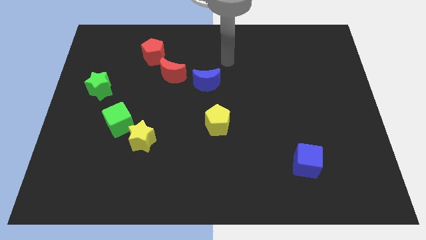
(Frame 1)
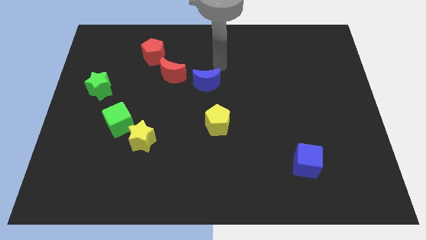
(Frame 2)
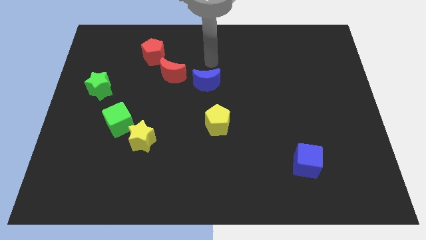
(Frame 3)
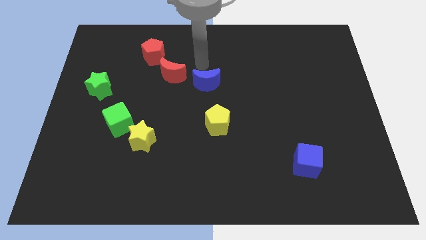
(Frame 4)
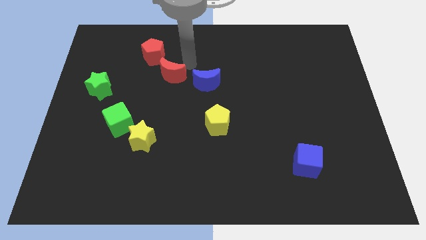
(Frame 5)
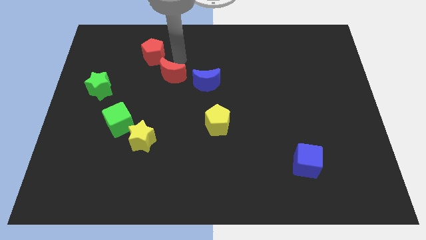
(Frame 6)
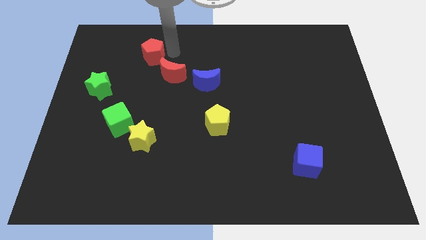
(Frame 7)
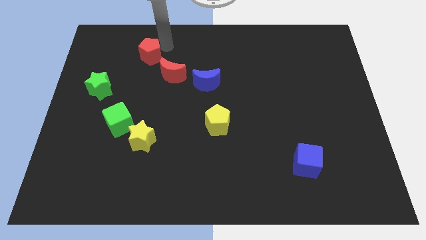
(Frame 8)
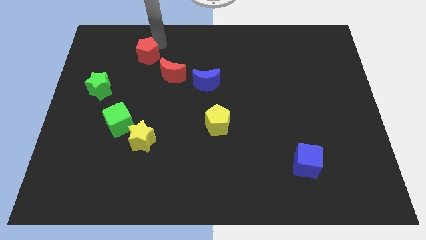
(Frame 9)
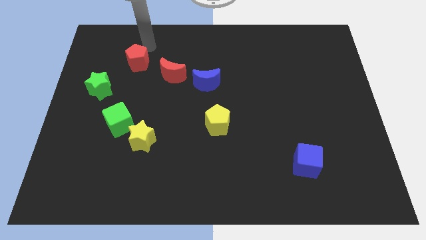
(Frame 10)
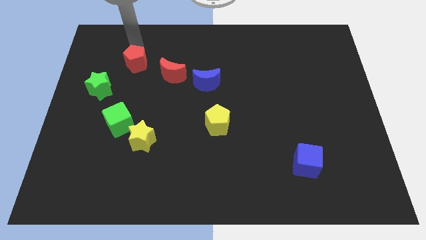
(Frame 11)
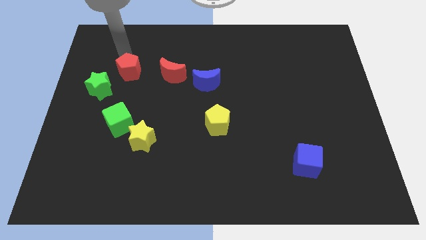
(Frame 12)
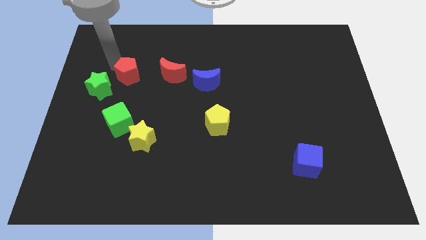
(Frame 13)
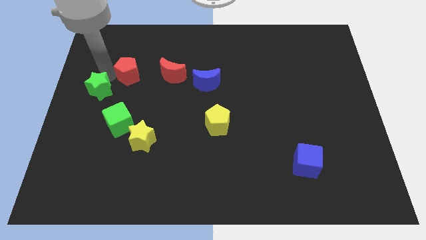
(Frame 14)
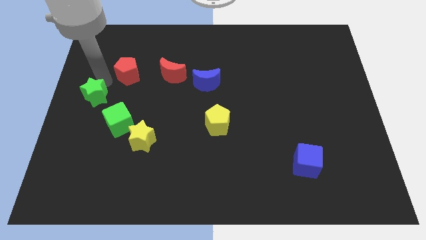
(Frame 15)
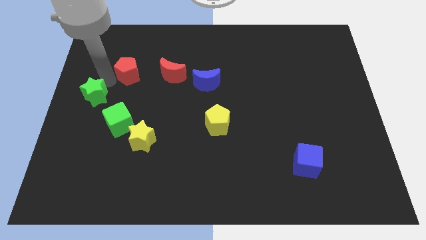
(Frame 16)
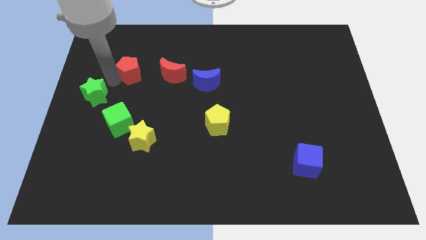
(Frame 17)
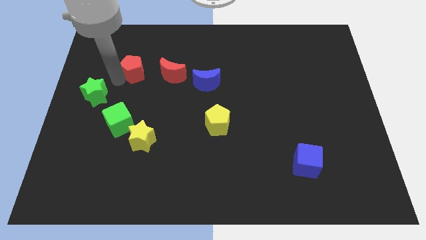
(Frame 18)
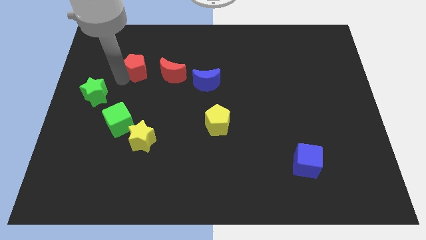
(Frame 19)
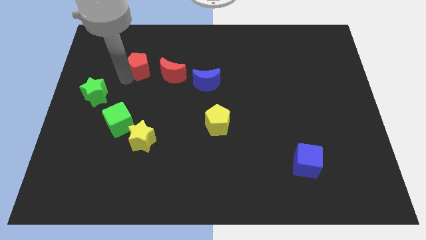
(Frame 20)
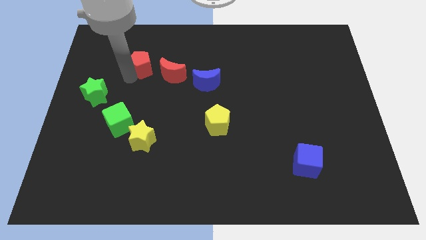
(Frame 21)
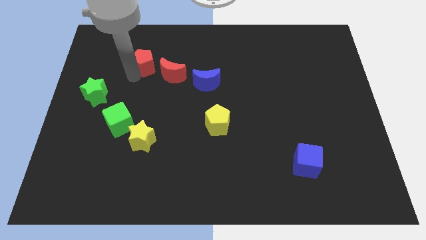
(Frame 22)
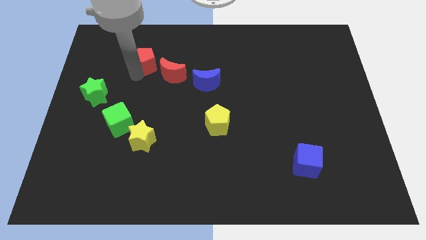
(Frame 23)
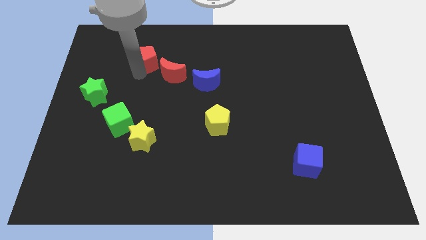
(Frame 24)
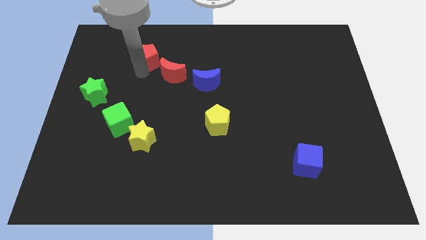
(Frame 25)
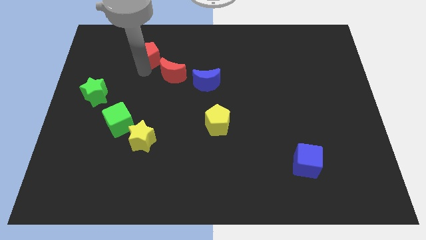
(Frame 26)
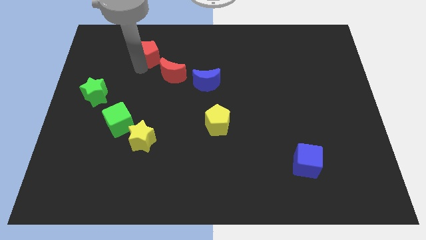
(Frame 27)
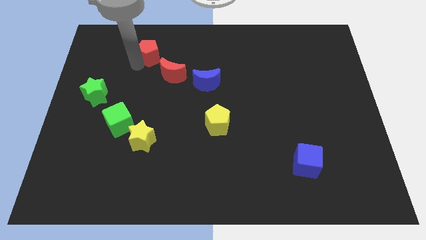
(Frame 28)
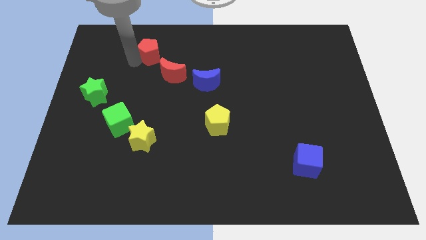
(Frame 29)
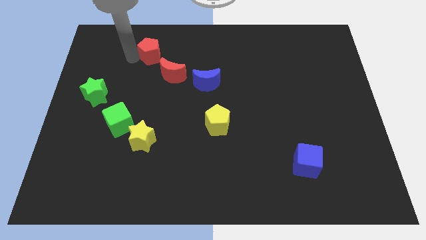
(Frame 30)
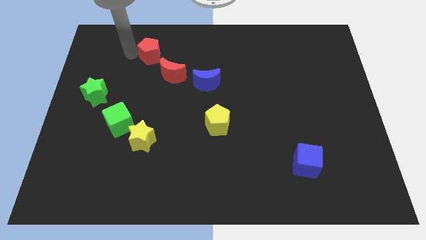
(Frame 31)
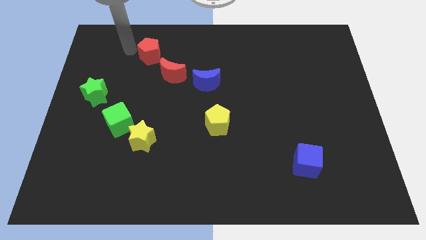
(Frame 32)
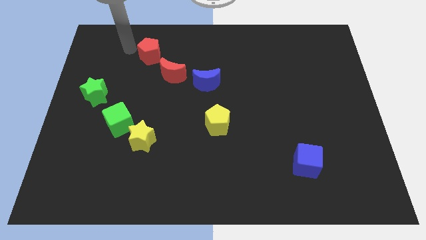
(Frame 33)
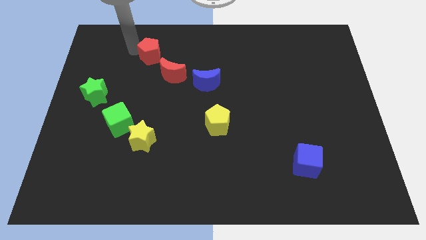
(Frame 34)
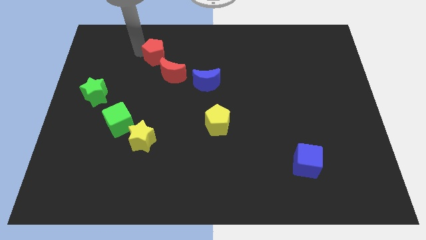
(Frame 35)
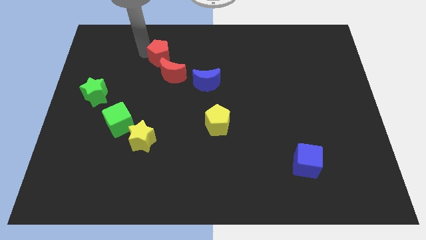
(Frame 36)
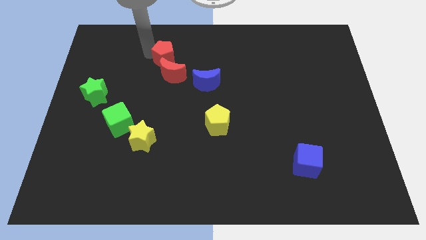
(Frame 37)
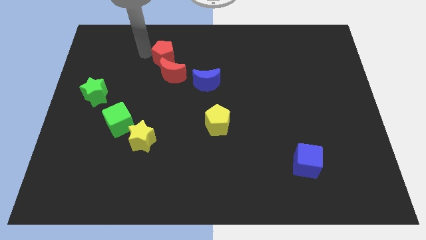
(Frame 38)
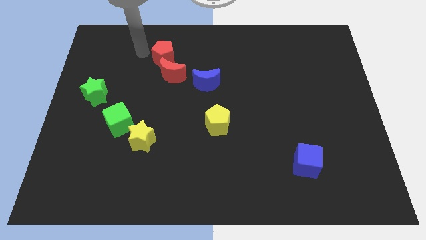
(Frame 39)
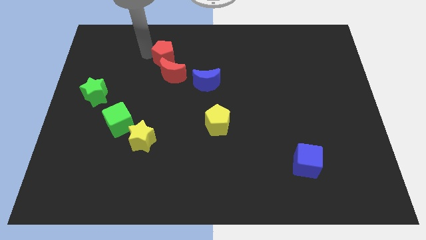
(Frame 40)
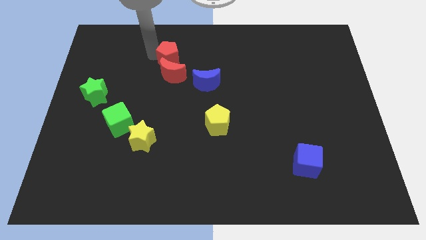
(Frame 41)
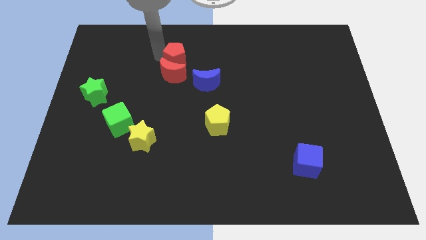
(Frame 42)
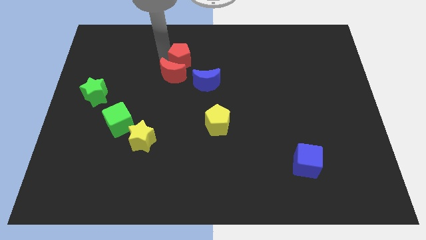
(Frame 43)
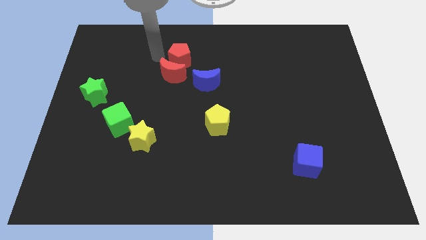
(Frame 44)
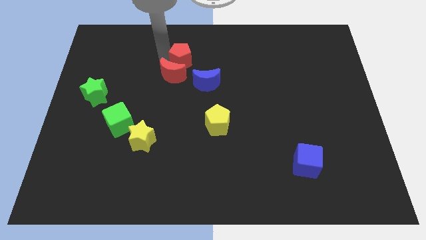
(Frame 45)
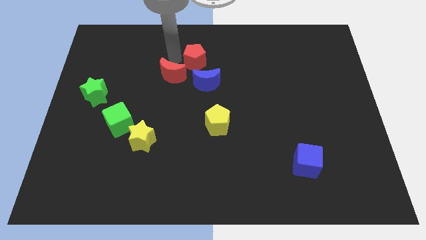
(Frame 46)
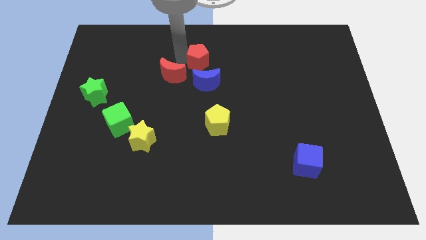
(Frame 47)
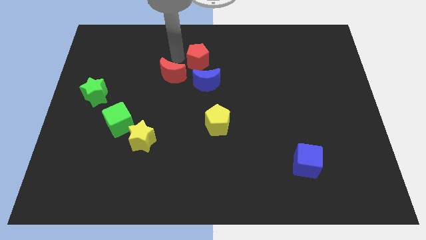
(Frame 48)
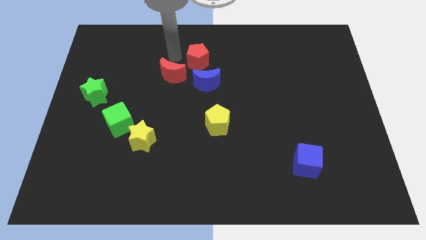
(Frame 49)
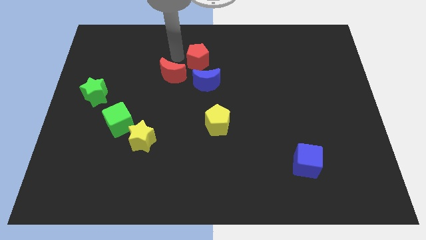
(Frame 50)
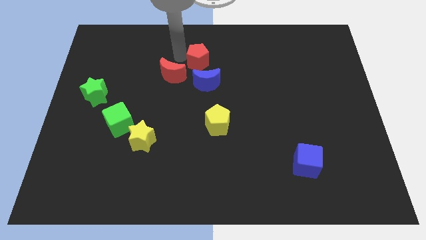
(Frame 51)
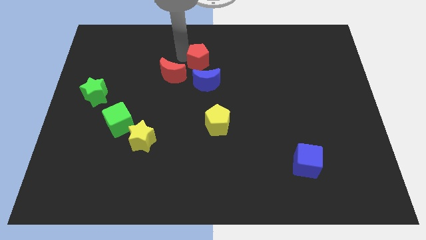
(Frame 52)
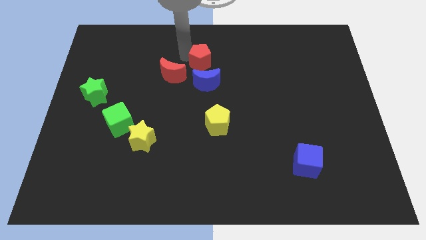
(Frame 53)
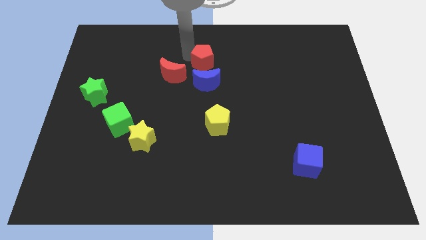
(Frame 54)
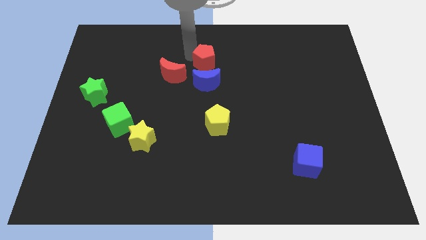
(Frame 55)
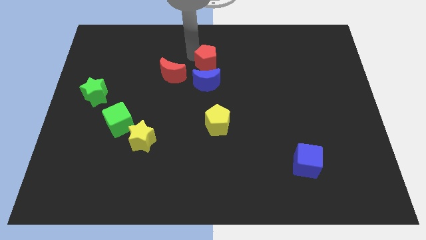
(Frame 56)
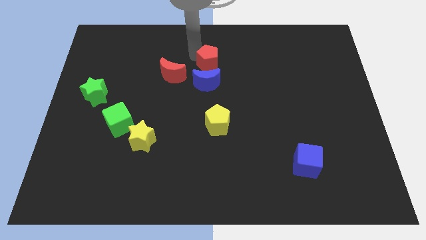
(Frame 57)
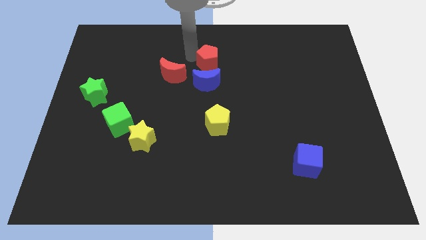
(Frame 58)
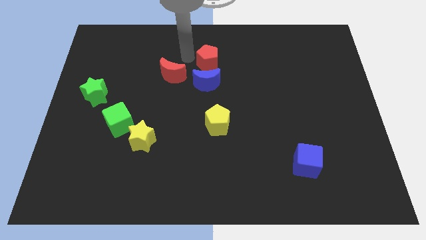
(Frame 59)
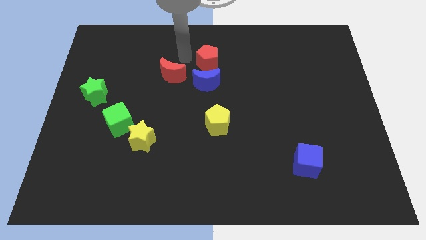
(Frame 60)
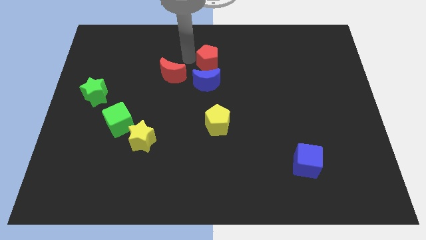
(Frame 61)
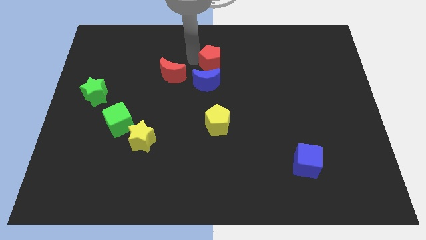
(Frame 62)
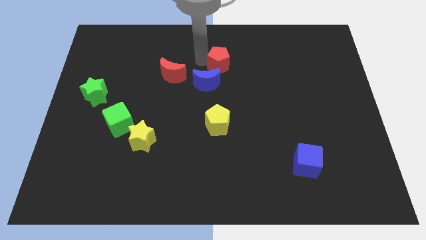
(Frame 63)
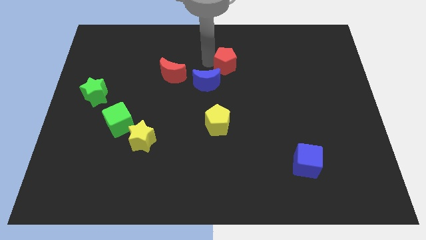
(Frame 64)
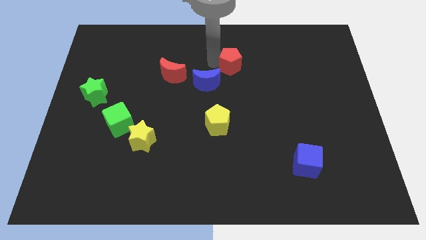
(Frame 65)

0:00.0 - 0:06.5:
push the red pentagon right

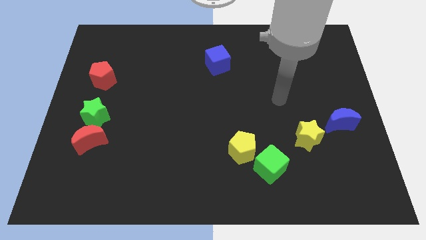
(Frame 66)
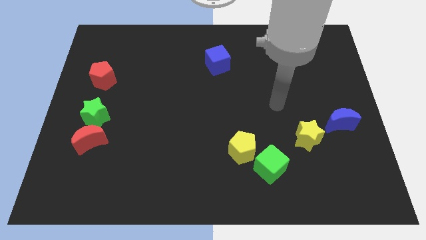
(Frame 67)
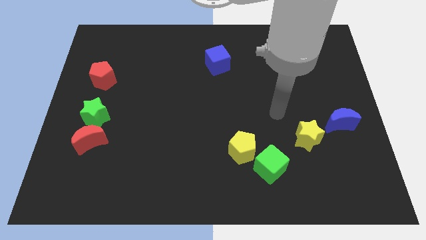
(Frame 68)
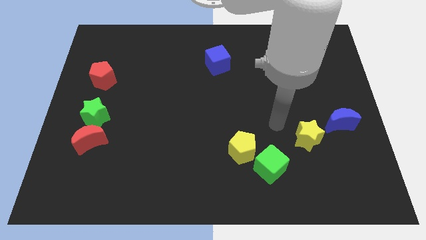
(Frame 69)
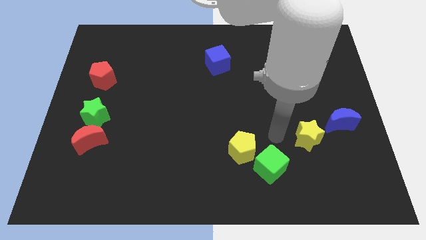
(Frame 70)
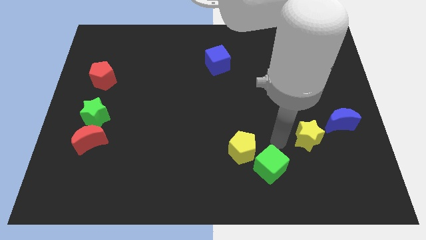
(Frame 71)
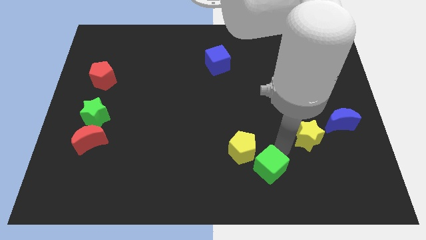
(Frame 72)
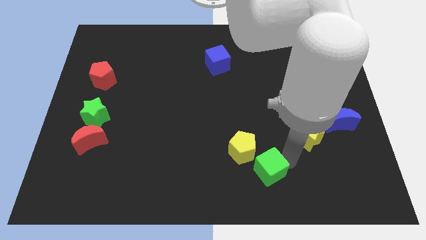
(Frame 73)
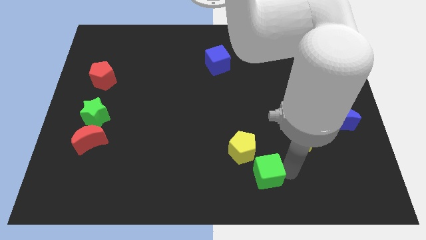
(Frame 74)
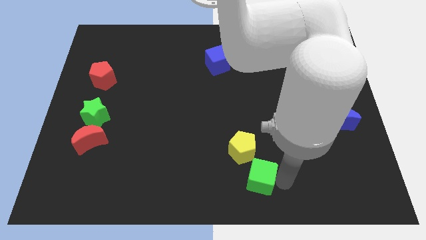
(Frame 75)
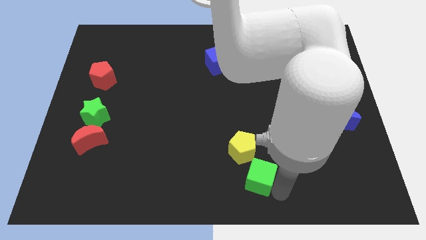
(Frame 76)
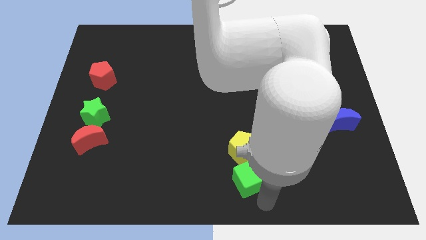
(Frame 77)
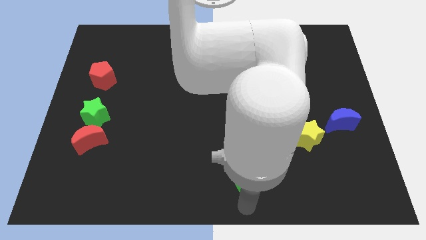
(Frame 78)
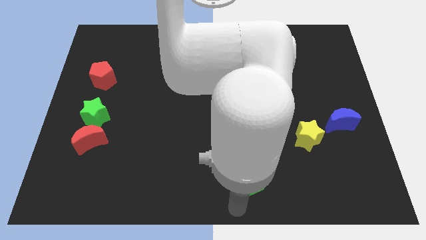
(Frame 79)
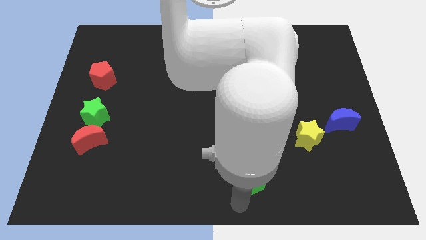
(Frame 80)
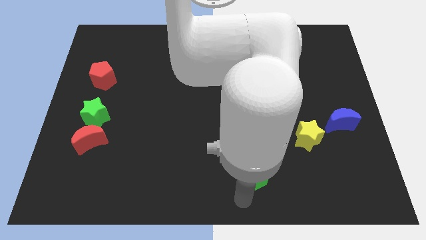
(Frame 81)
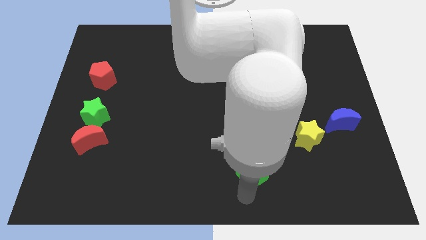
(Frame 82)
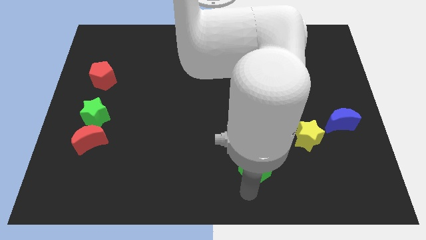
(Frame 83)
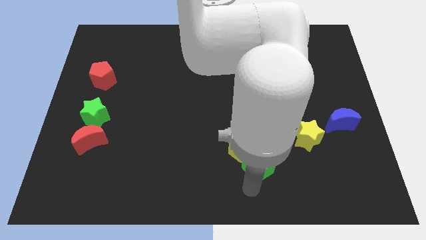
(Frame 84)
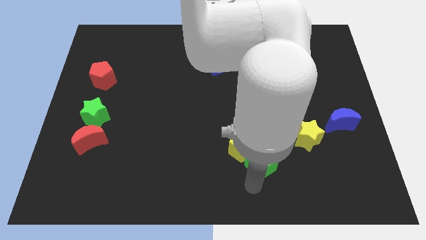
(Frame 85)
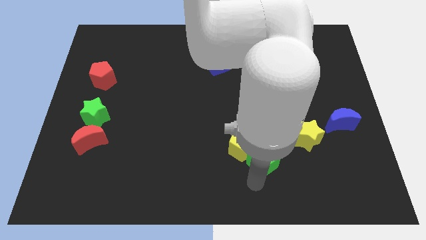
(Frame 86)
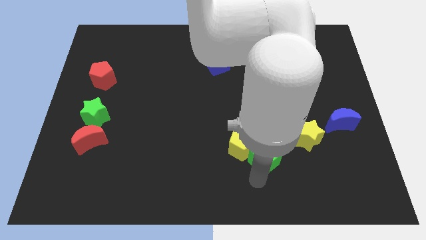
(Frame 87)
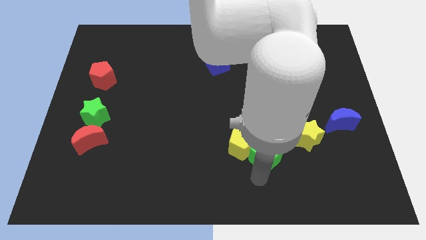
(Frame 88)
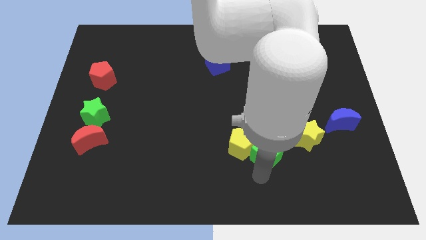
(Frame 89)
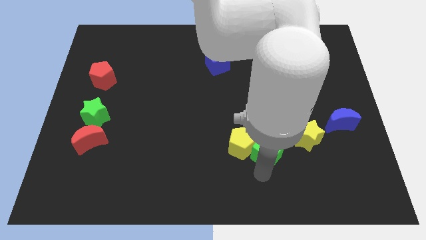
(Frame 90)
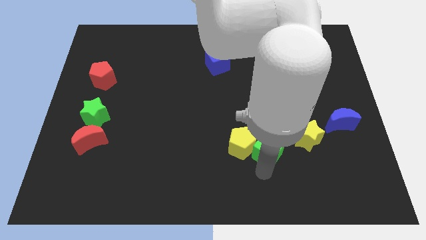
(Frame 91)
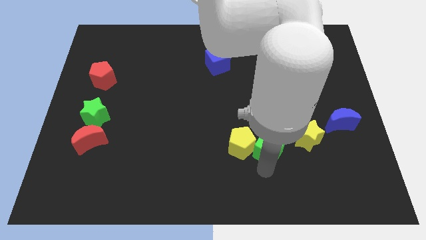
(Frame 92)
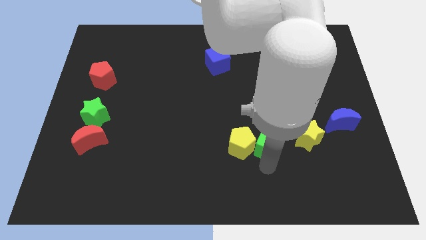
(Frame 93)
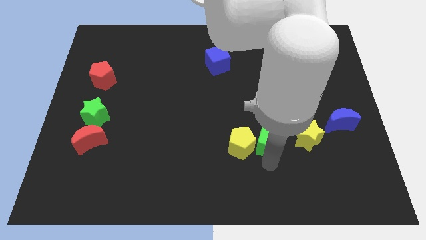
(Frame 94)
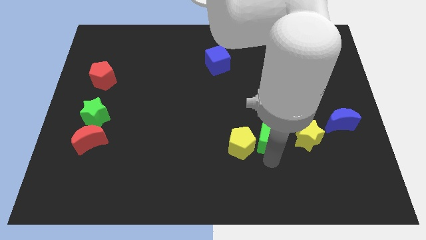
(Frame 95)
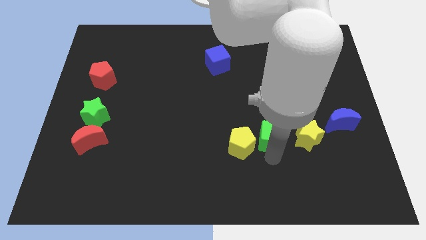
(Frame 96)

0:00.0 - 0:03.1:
slightly slide the green cube up
